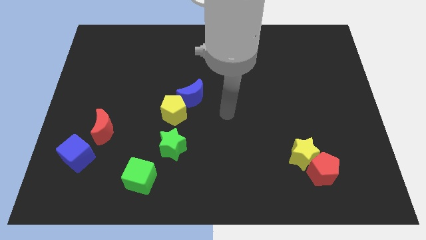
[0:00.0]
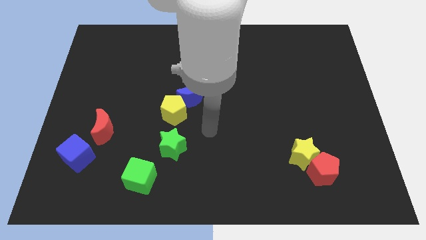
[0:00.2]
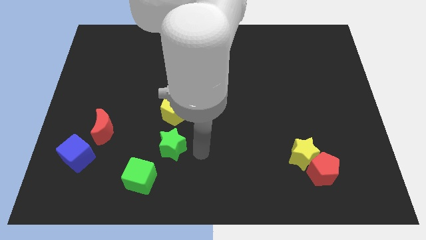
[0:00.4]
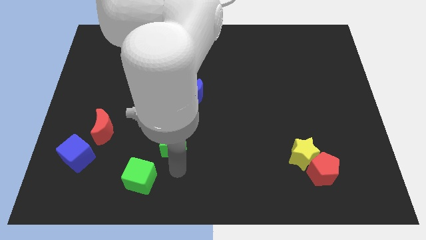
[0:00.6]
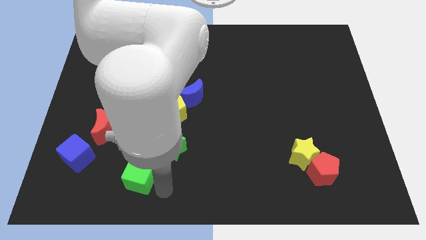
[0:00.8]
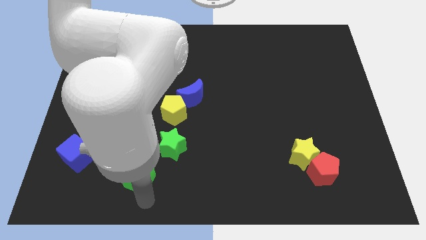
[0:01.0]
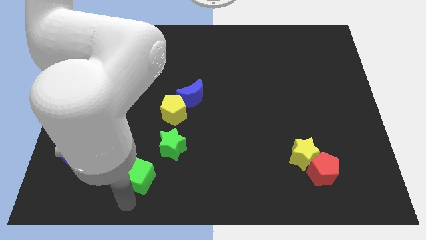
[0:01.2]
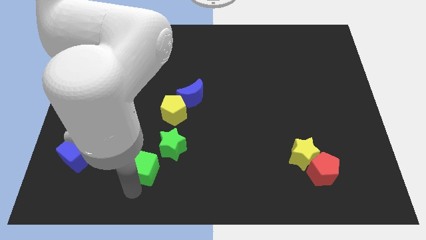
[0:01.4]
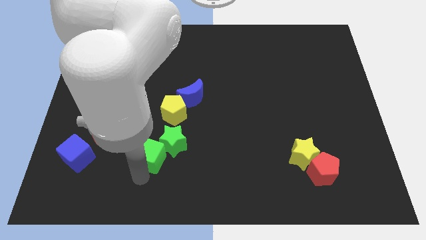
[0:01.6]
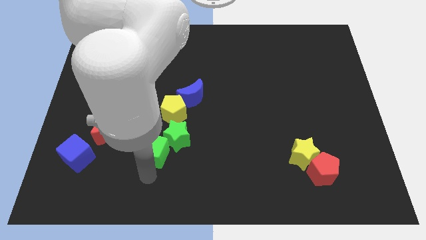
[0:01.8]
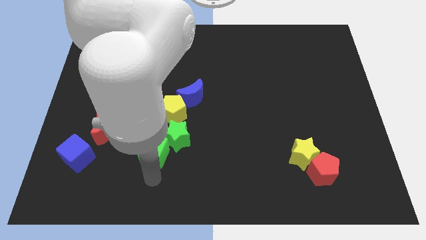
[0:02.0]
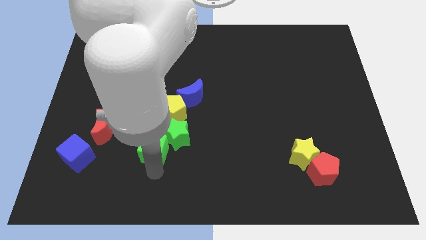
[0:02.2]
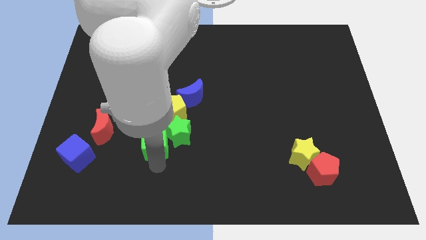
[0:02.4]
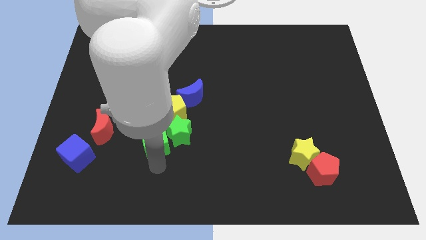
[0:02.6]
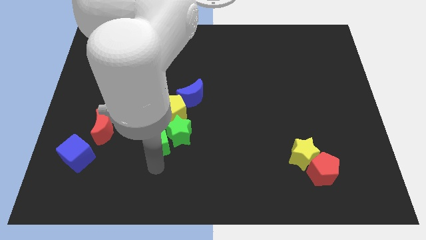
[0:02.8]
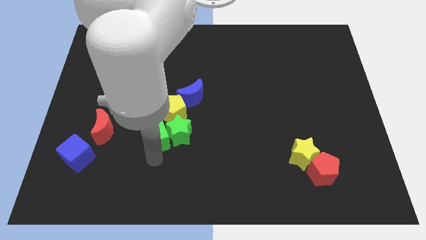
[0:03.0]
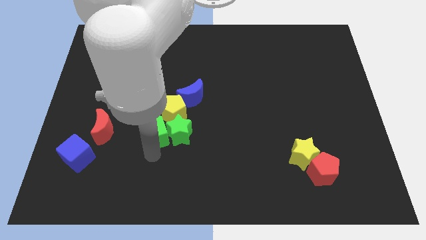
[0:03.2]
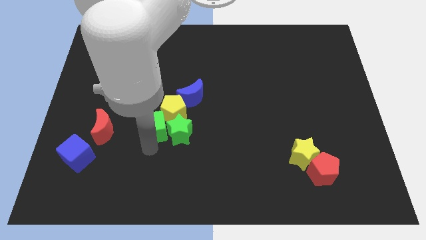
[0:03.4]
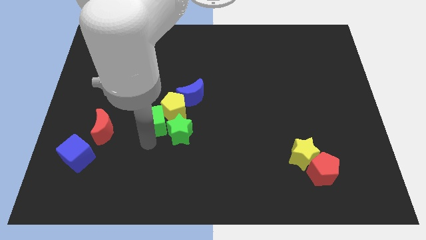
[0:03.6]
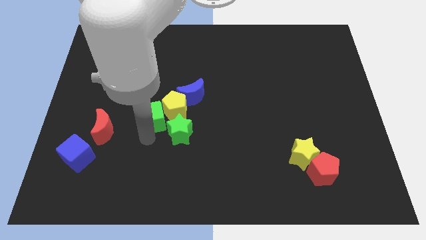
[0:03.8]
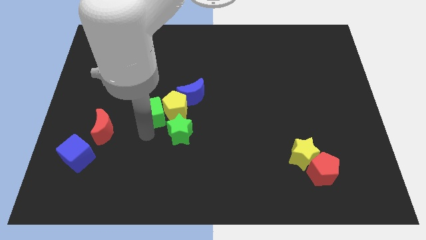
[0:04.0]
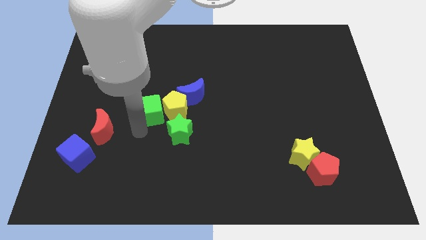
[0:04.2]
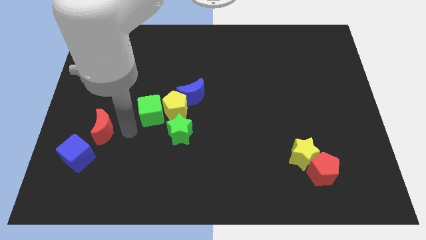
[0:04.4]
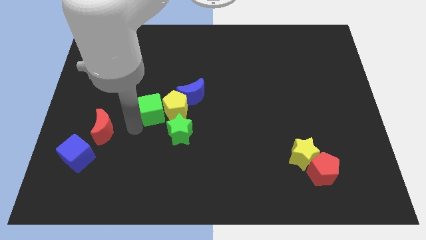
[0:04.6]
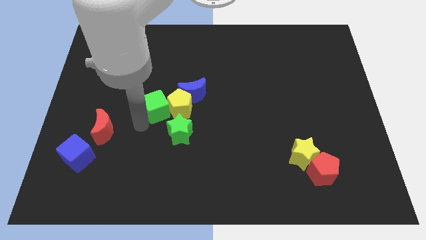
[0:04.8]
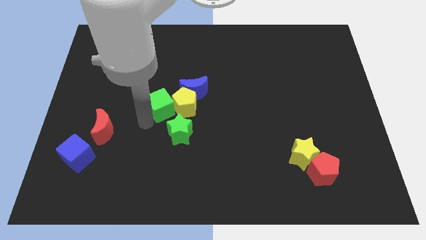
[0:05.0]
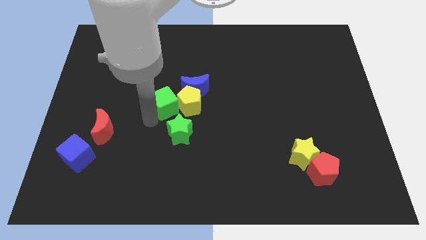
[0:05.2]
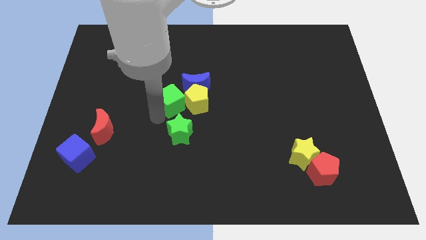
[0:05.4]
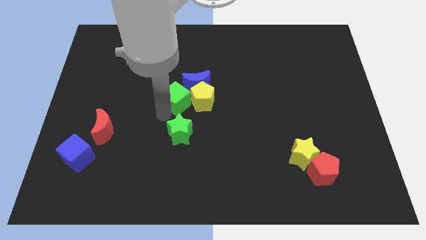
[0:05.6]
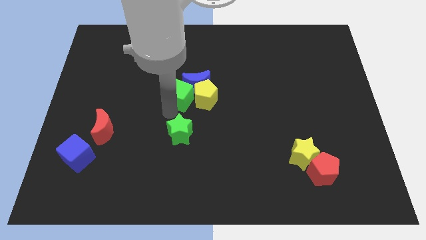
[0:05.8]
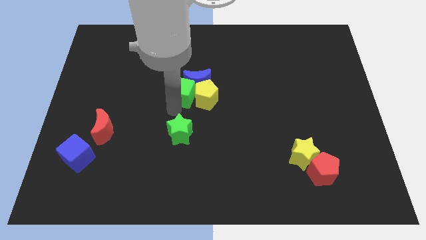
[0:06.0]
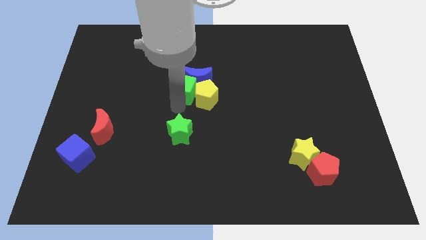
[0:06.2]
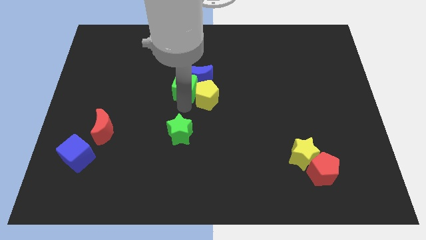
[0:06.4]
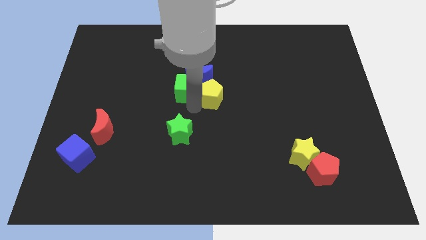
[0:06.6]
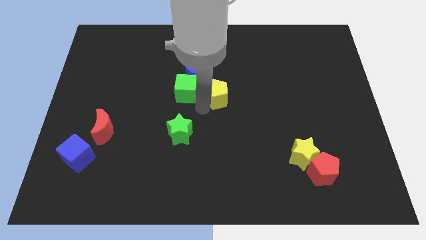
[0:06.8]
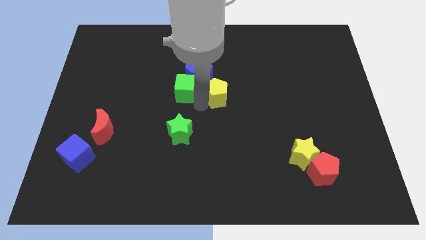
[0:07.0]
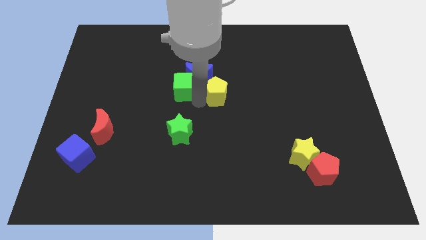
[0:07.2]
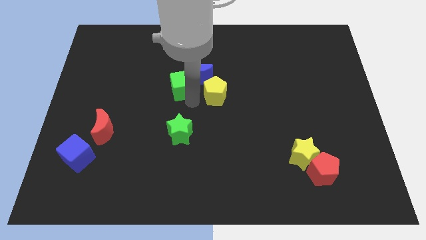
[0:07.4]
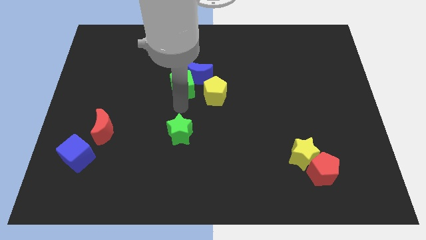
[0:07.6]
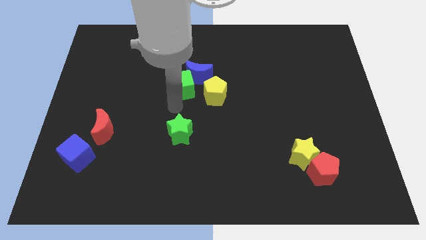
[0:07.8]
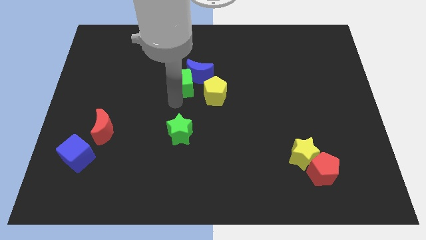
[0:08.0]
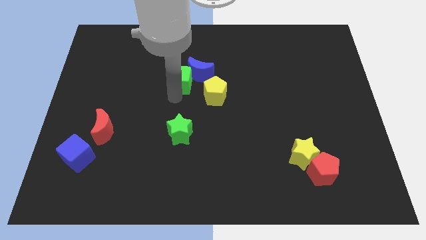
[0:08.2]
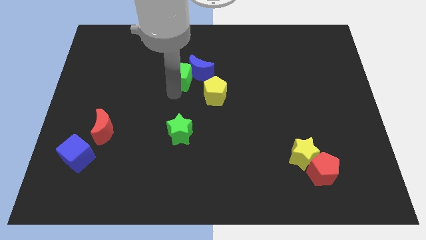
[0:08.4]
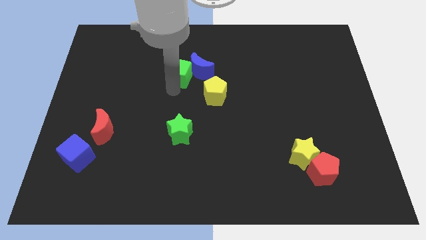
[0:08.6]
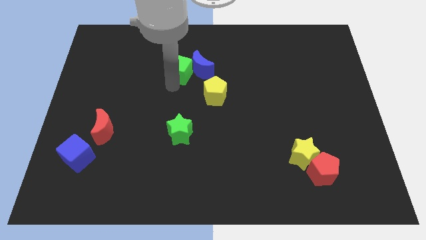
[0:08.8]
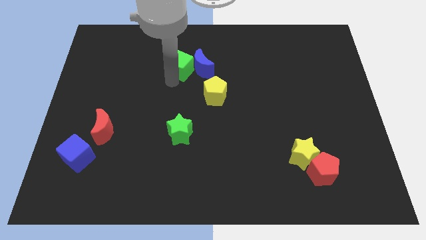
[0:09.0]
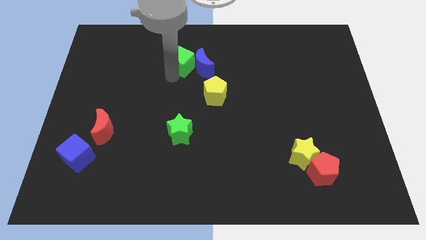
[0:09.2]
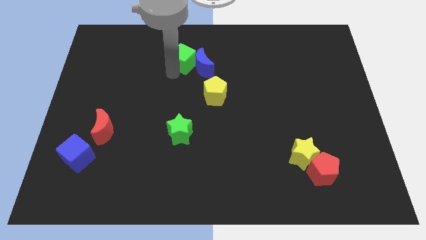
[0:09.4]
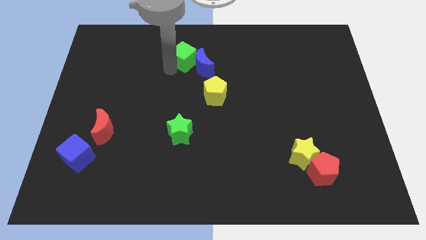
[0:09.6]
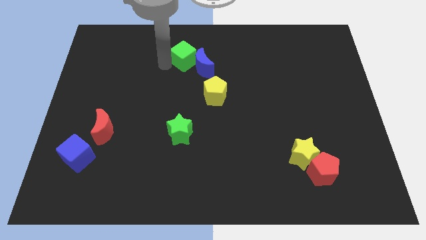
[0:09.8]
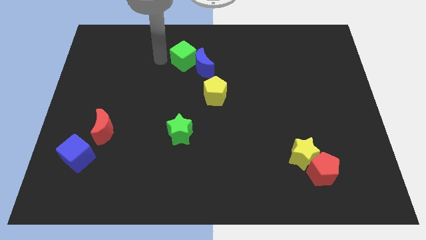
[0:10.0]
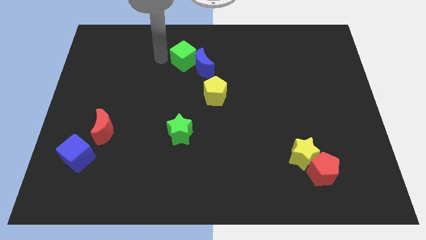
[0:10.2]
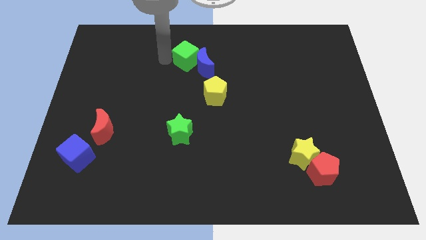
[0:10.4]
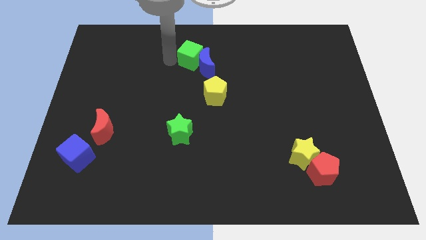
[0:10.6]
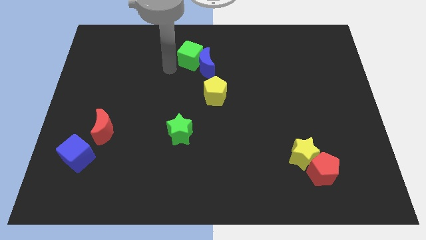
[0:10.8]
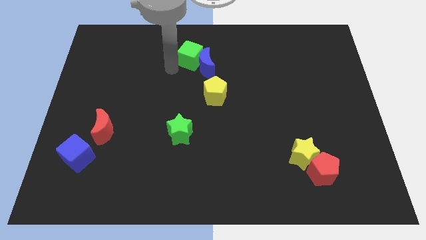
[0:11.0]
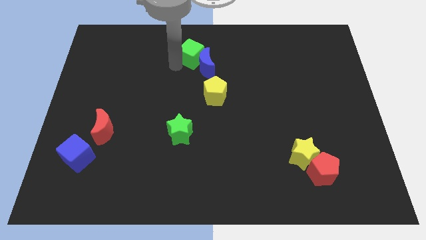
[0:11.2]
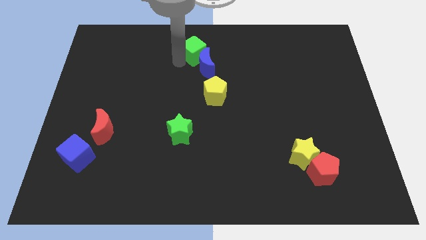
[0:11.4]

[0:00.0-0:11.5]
push the green cube to the top side
